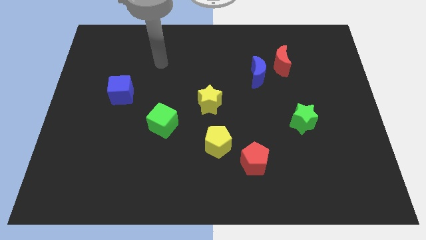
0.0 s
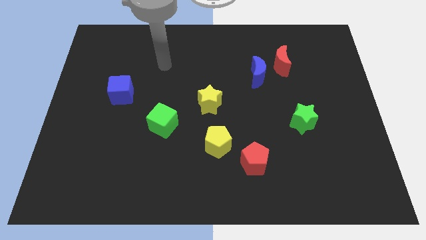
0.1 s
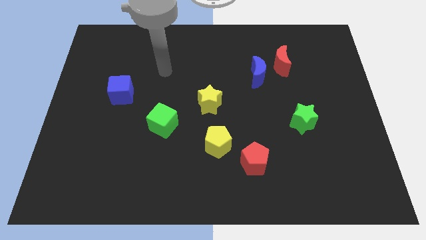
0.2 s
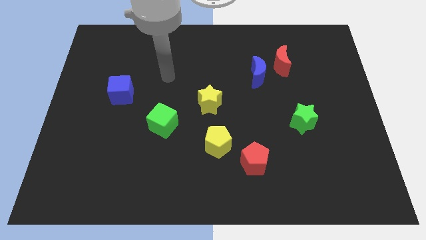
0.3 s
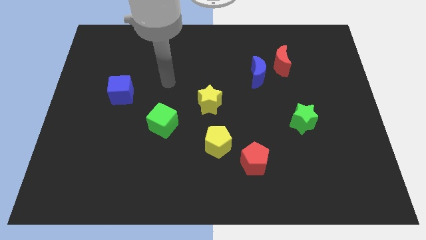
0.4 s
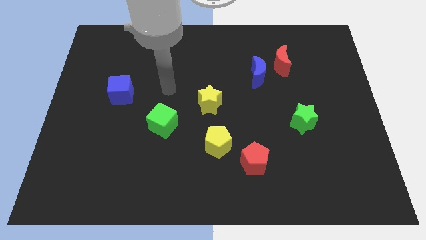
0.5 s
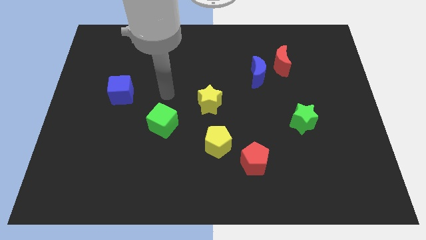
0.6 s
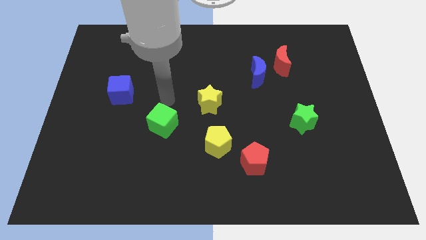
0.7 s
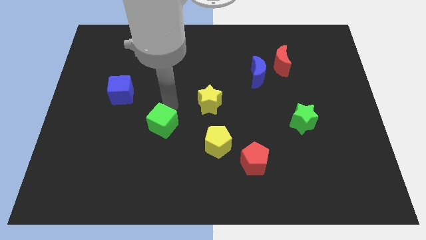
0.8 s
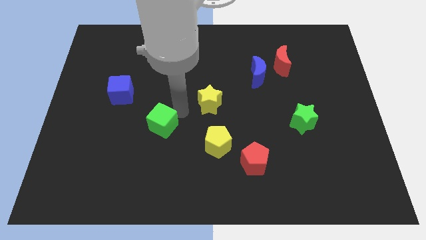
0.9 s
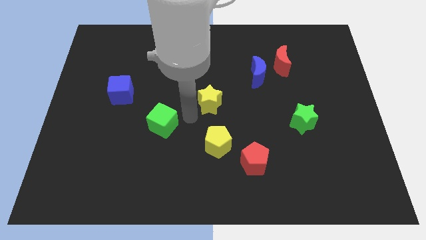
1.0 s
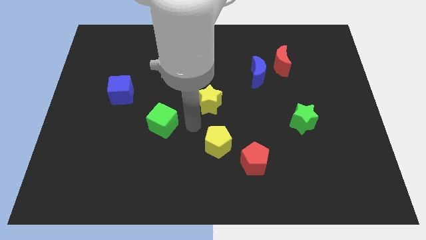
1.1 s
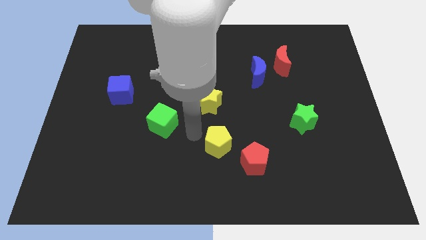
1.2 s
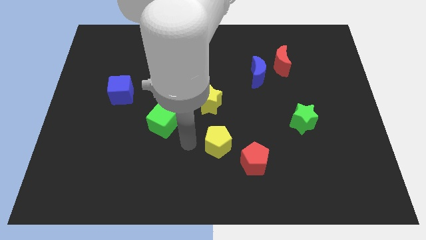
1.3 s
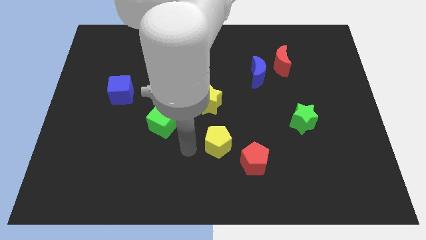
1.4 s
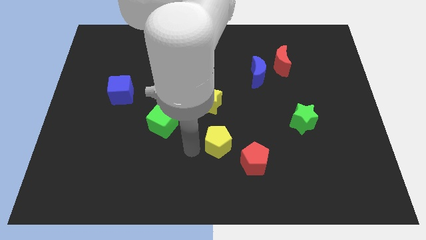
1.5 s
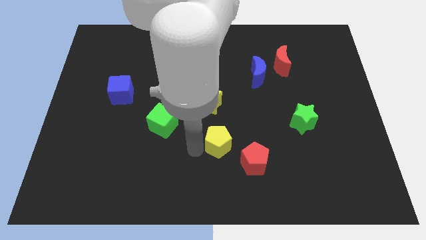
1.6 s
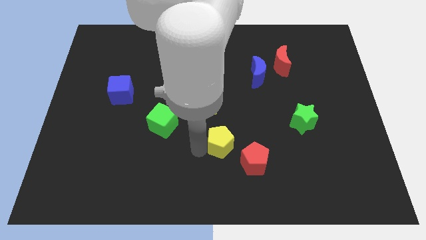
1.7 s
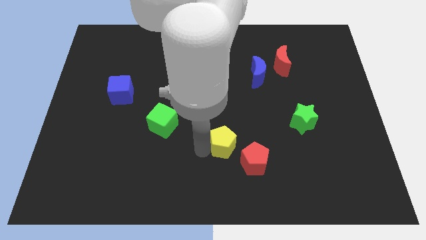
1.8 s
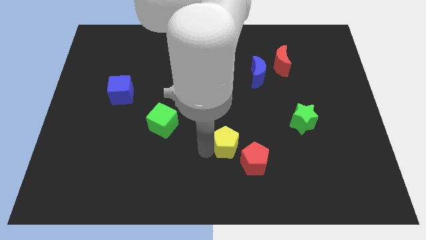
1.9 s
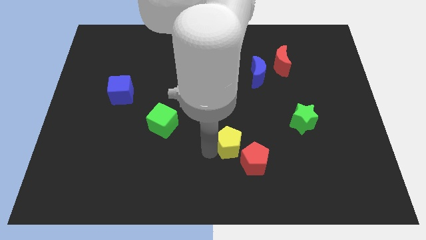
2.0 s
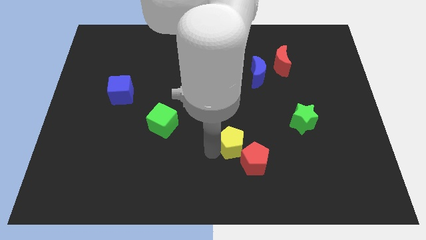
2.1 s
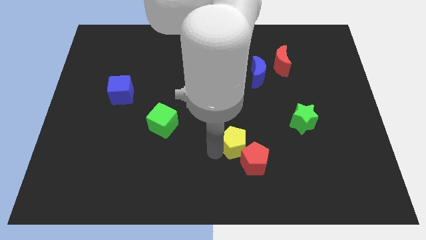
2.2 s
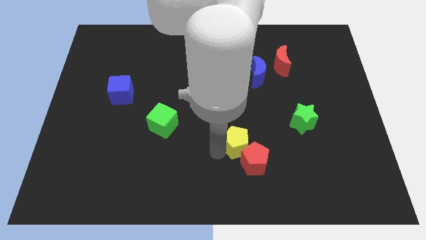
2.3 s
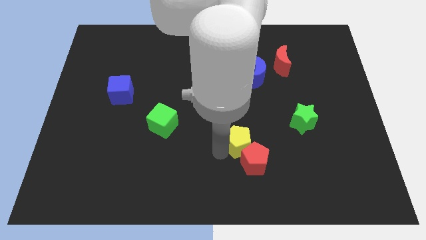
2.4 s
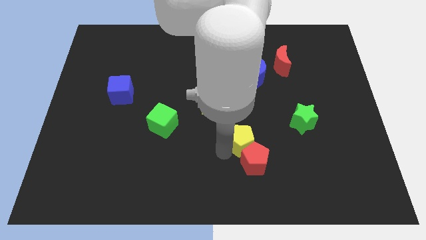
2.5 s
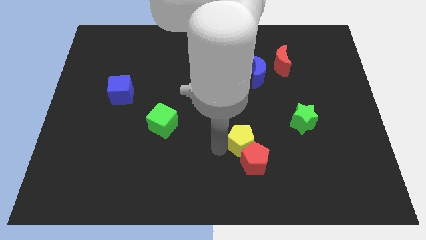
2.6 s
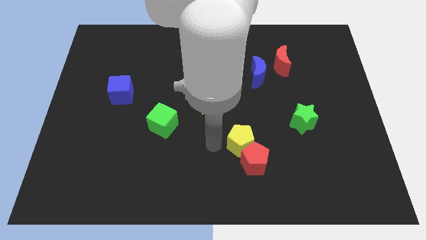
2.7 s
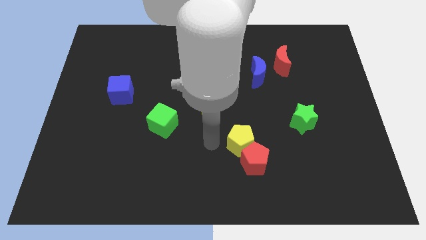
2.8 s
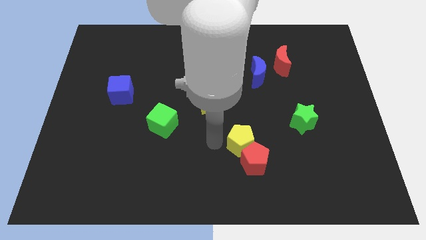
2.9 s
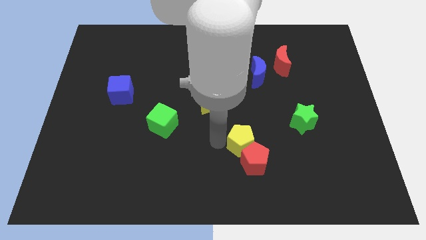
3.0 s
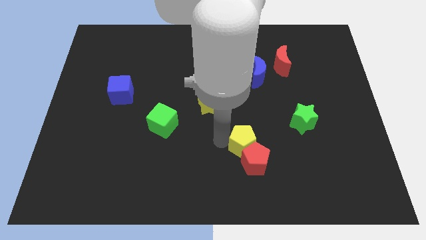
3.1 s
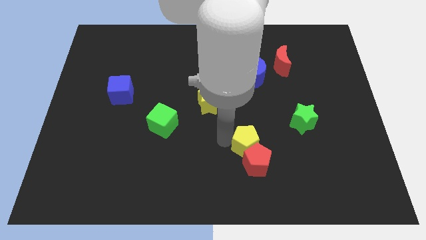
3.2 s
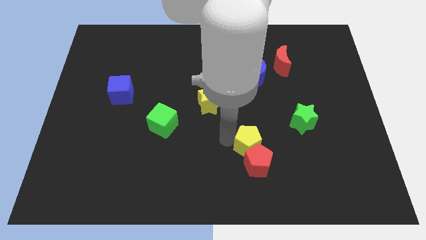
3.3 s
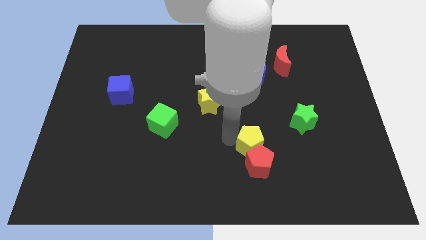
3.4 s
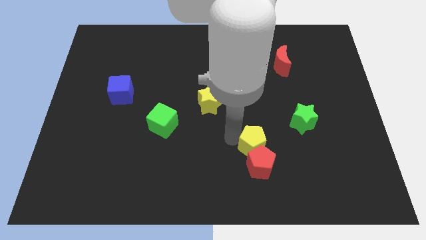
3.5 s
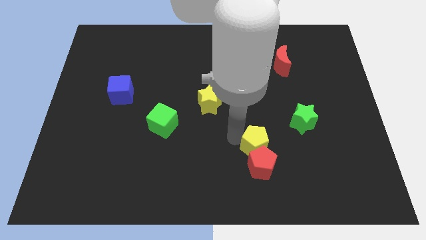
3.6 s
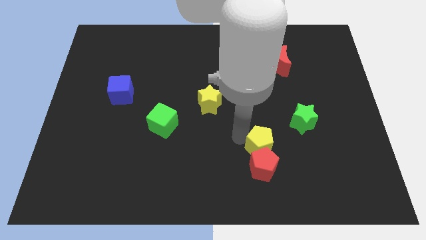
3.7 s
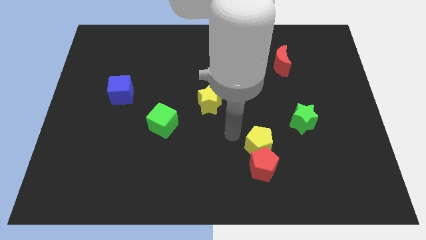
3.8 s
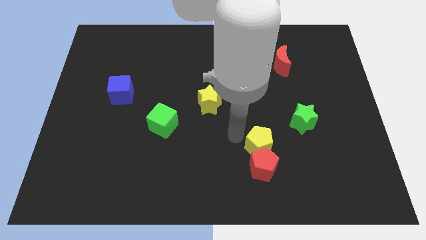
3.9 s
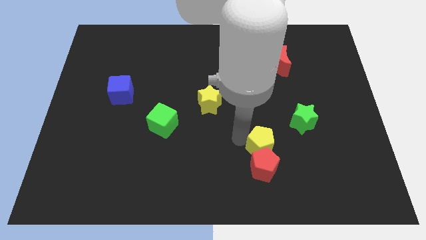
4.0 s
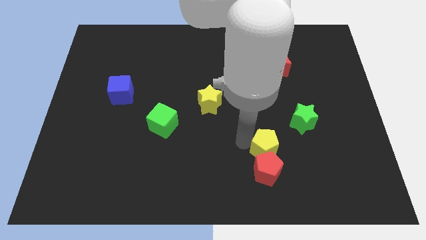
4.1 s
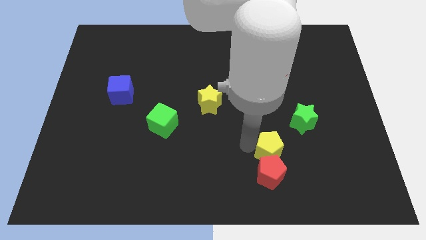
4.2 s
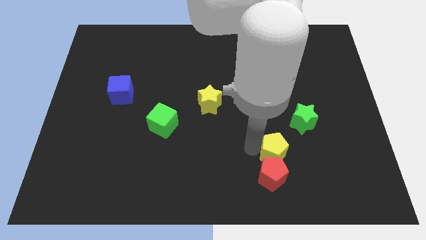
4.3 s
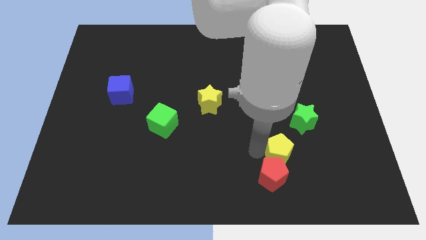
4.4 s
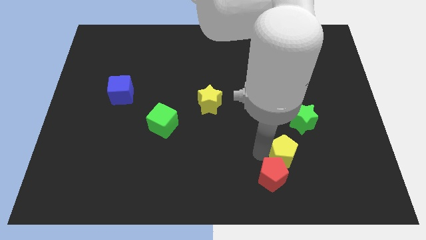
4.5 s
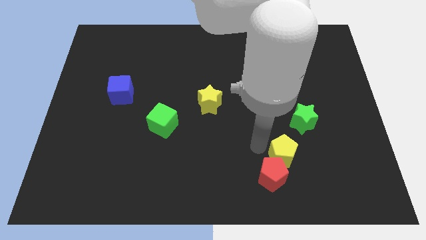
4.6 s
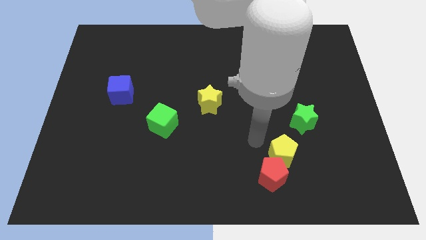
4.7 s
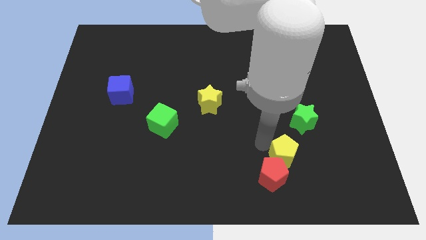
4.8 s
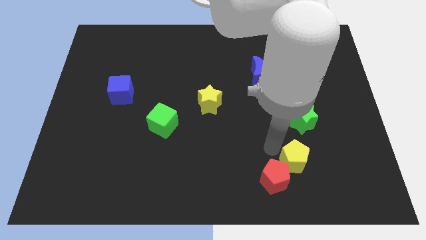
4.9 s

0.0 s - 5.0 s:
push the yellow pentagon right of the red pentagon

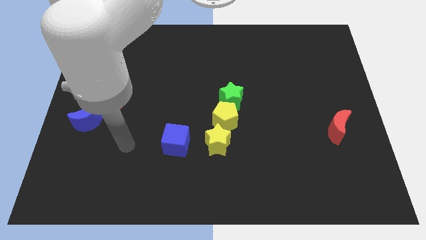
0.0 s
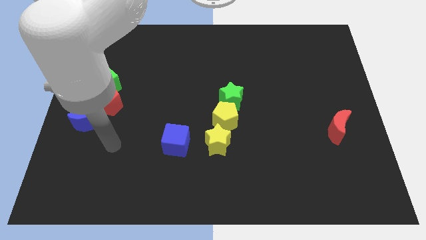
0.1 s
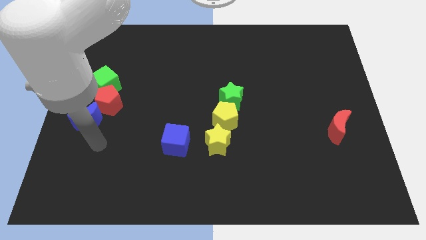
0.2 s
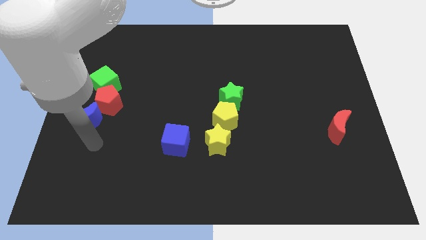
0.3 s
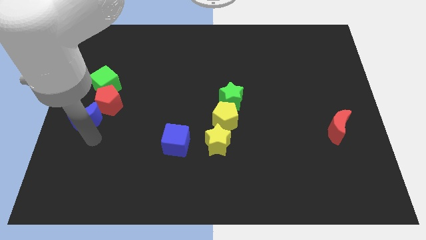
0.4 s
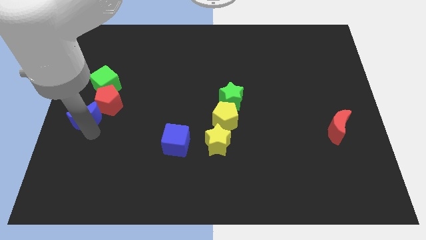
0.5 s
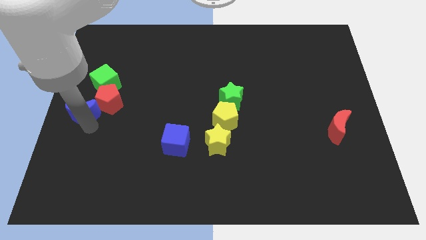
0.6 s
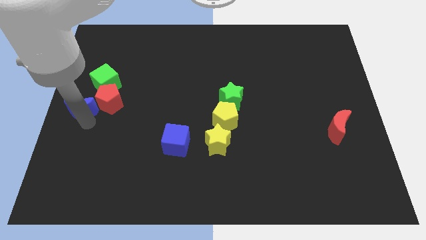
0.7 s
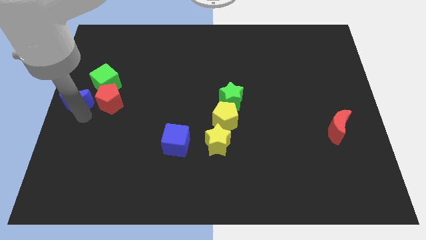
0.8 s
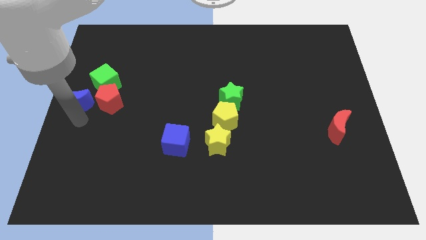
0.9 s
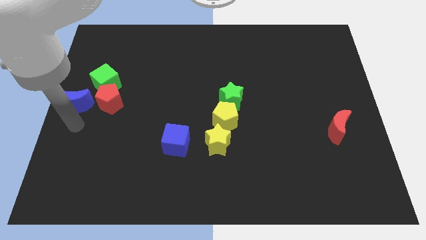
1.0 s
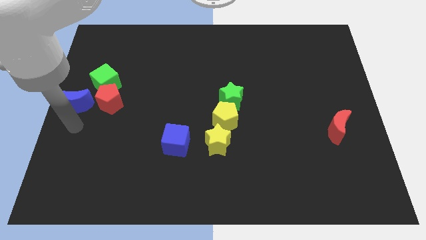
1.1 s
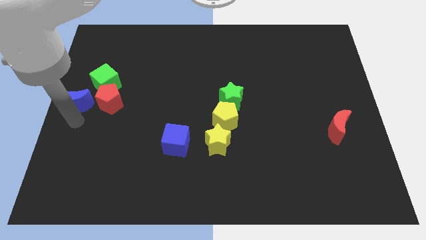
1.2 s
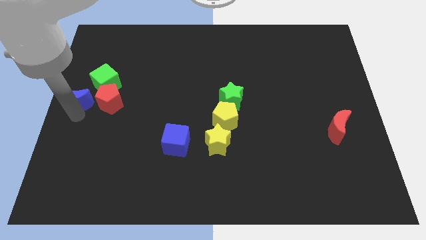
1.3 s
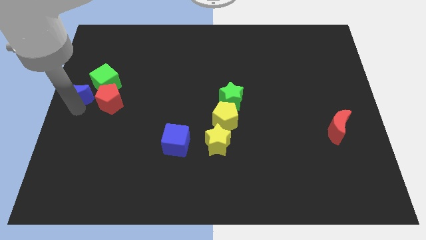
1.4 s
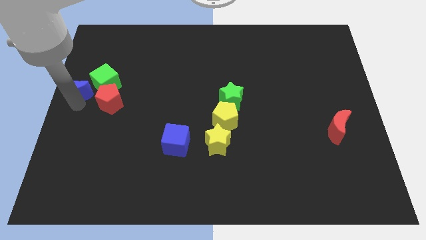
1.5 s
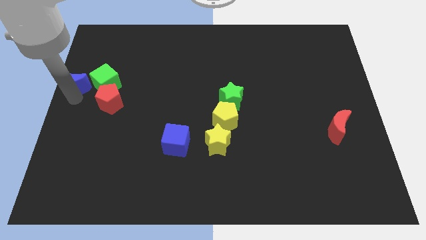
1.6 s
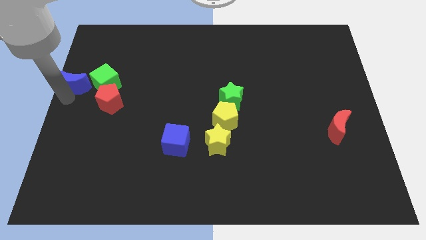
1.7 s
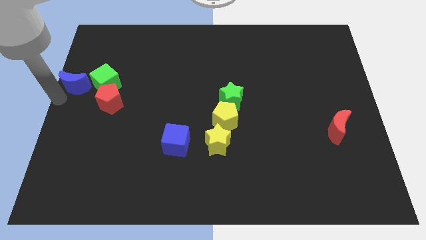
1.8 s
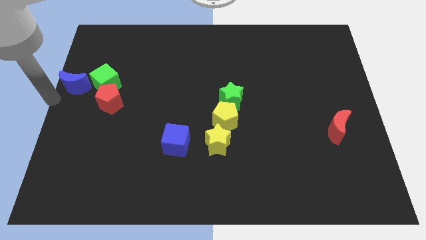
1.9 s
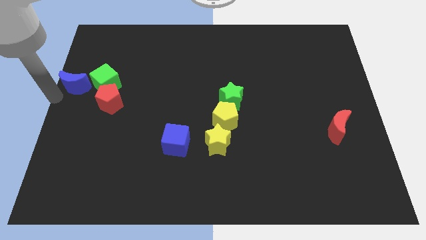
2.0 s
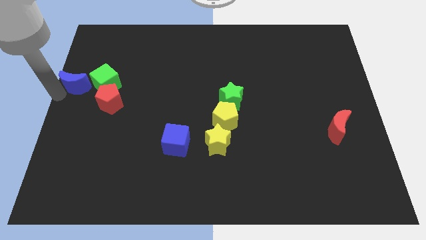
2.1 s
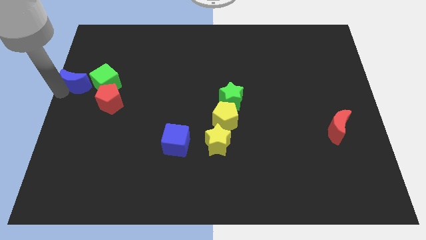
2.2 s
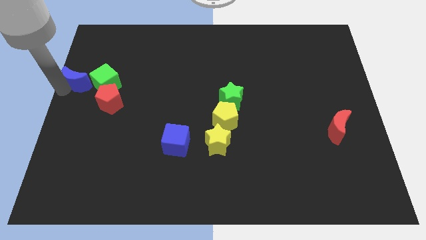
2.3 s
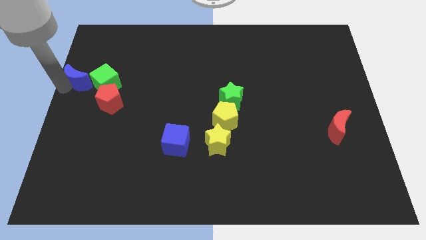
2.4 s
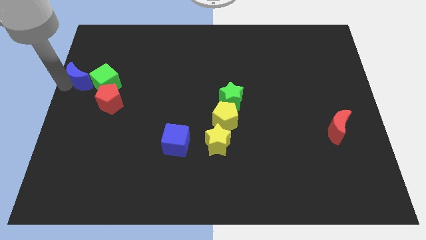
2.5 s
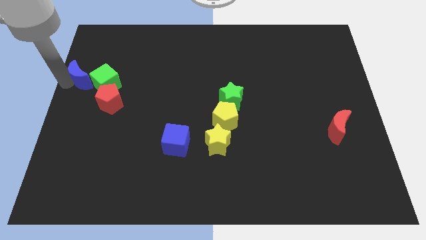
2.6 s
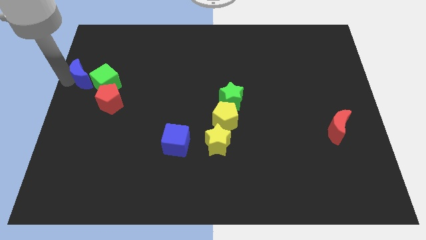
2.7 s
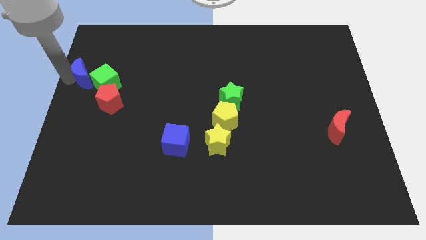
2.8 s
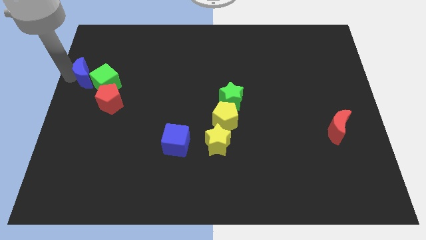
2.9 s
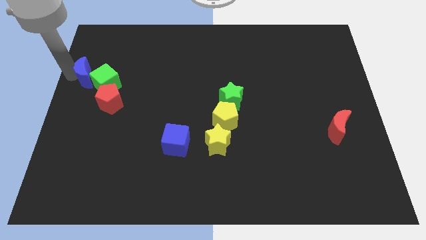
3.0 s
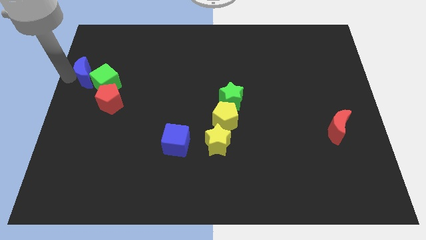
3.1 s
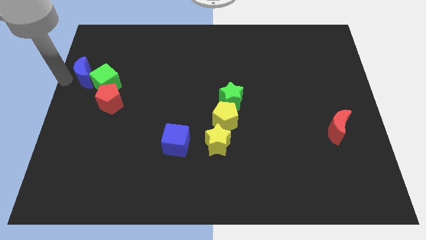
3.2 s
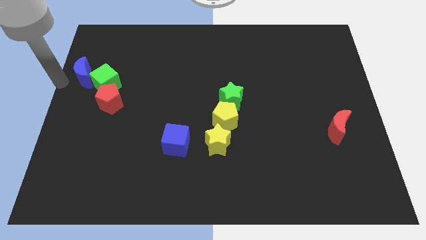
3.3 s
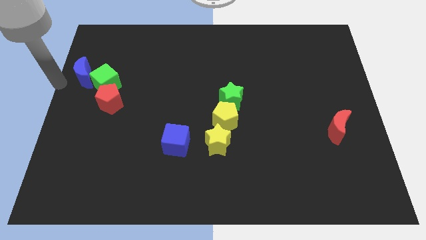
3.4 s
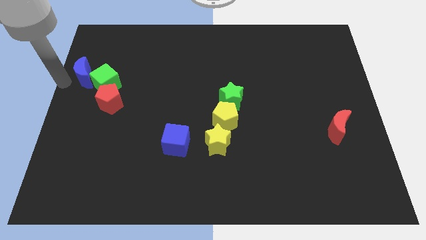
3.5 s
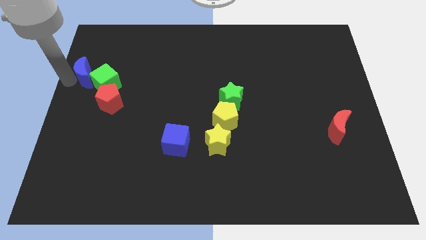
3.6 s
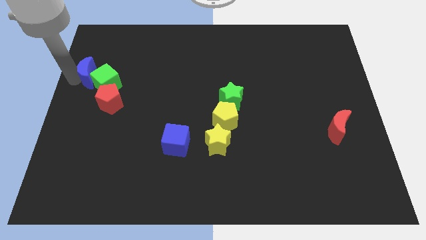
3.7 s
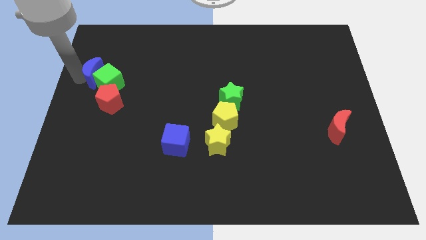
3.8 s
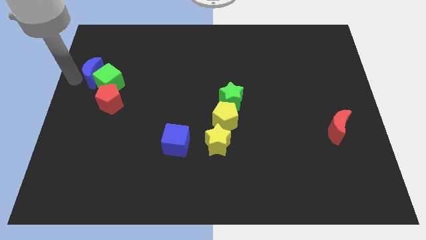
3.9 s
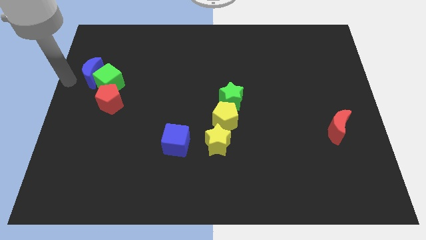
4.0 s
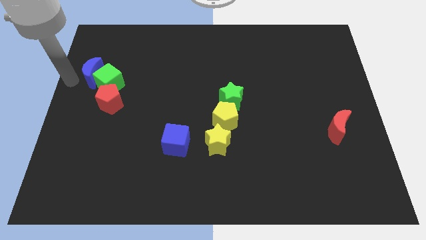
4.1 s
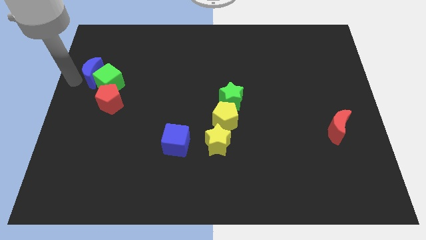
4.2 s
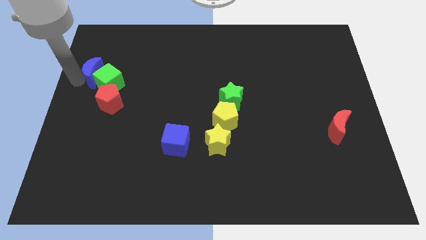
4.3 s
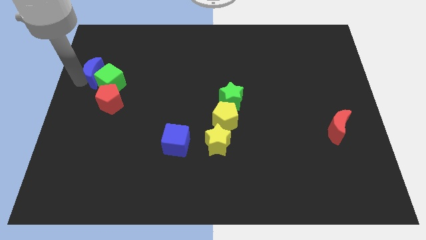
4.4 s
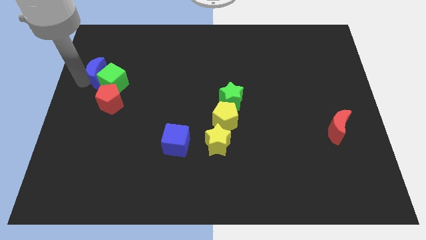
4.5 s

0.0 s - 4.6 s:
push the blue moon to the top of the red pentagon
